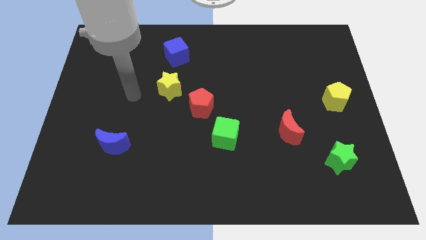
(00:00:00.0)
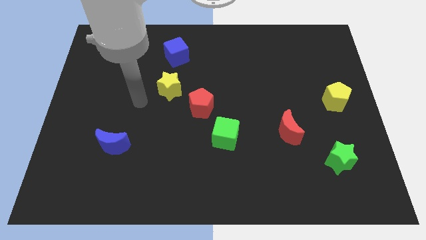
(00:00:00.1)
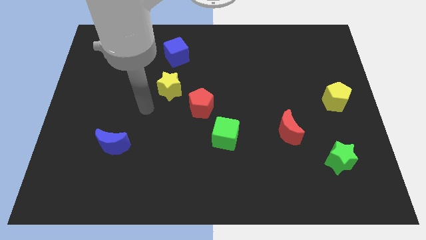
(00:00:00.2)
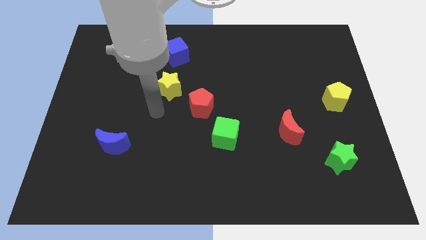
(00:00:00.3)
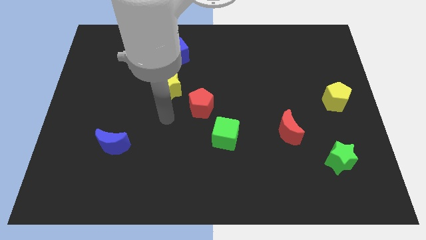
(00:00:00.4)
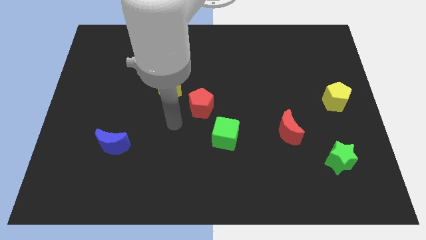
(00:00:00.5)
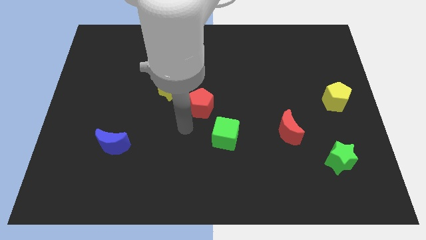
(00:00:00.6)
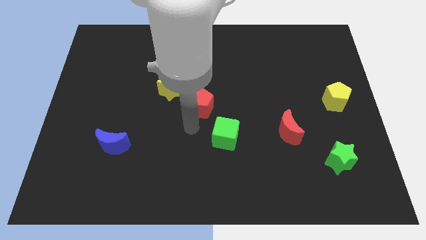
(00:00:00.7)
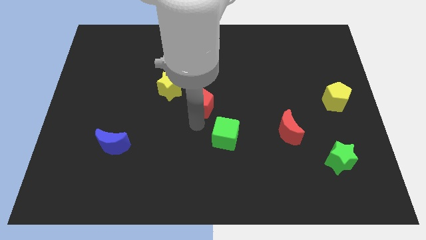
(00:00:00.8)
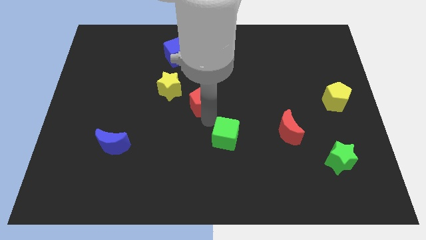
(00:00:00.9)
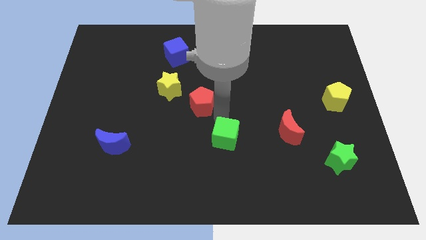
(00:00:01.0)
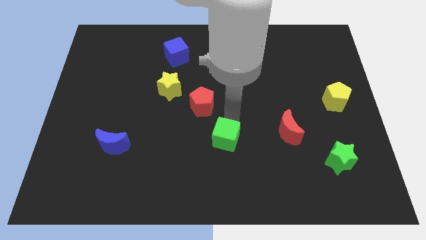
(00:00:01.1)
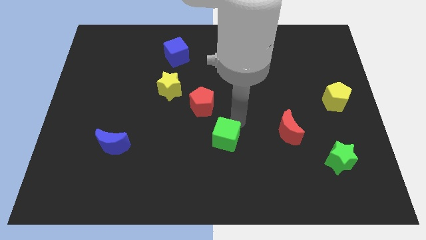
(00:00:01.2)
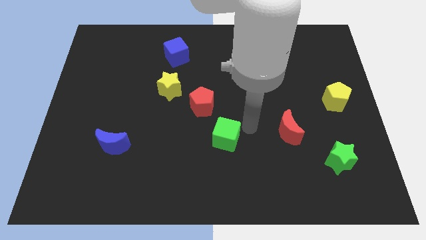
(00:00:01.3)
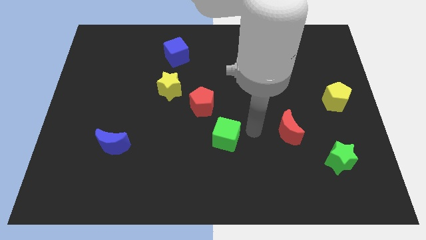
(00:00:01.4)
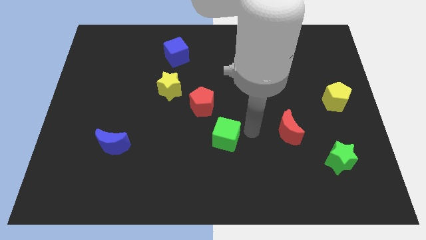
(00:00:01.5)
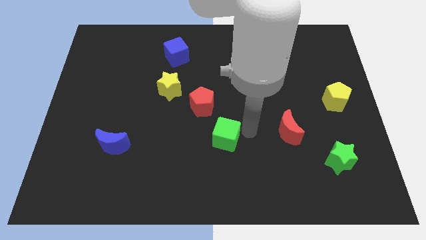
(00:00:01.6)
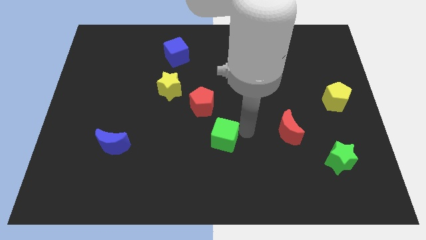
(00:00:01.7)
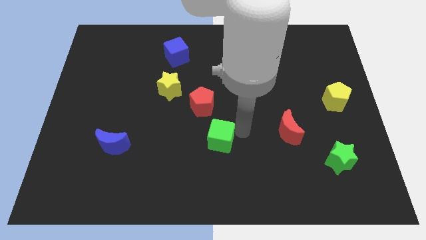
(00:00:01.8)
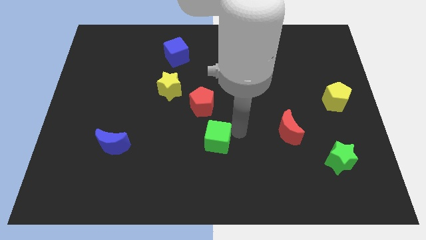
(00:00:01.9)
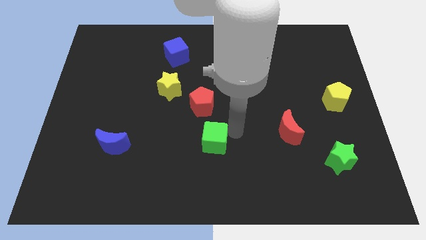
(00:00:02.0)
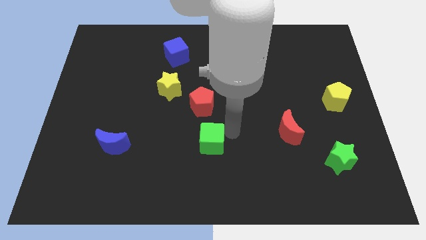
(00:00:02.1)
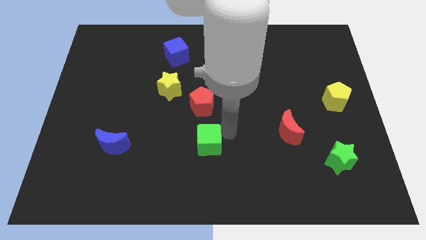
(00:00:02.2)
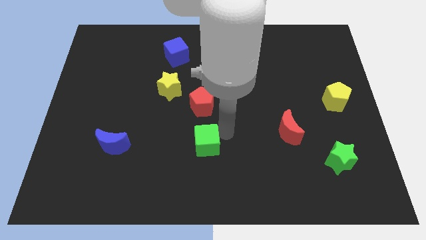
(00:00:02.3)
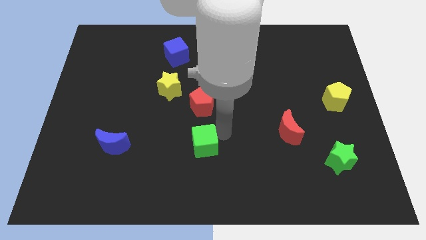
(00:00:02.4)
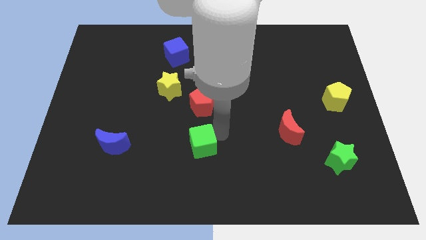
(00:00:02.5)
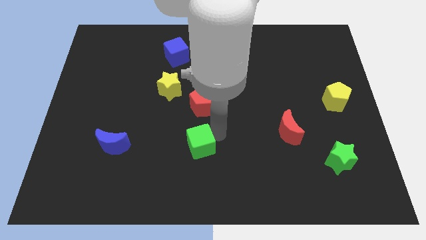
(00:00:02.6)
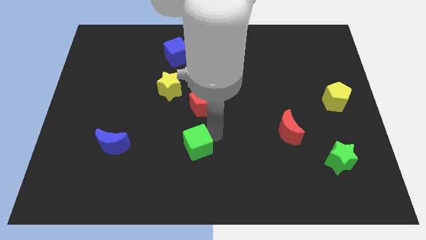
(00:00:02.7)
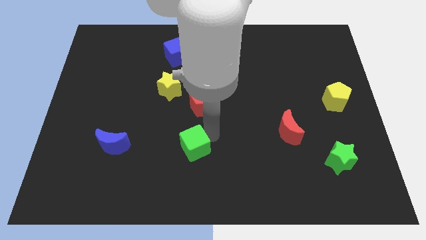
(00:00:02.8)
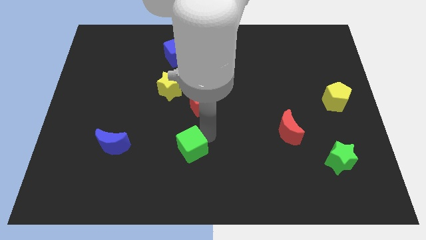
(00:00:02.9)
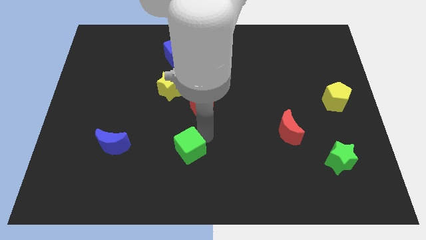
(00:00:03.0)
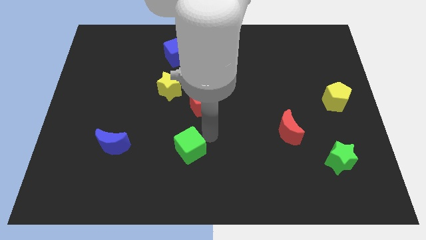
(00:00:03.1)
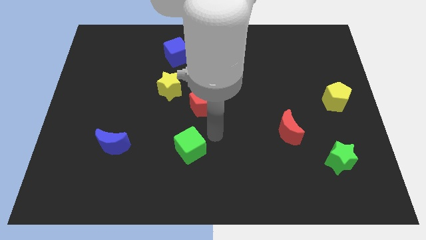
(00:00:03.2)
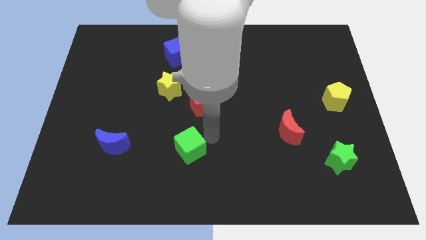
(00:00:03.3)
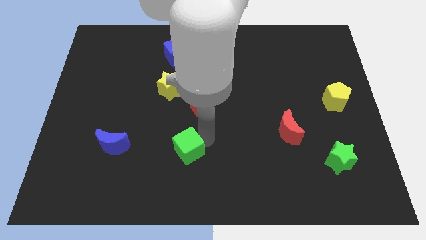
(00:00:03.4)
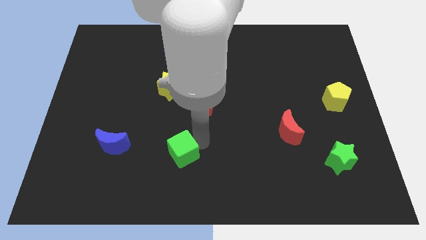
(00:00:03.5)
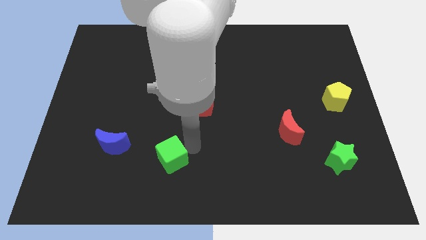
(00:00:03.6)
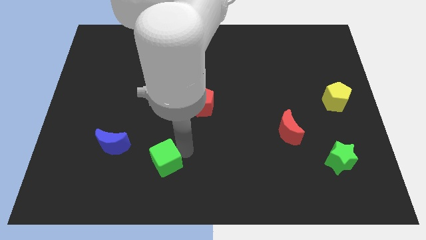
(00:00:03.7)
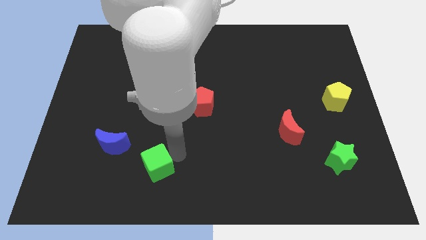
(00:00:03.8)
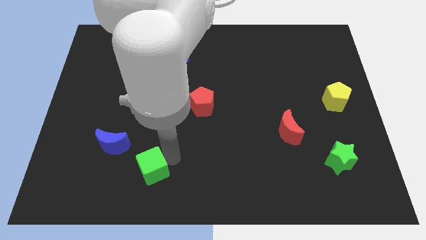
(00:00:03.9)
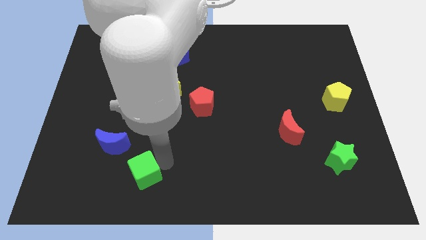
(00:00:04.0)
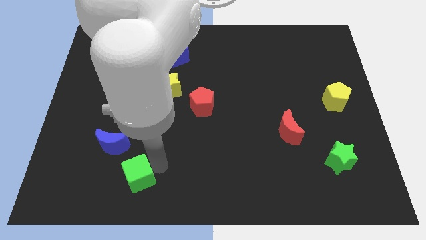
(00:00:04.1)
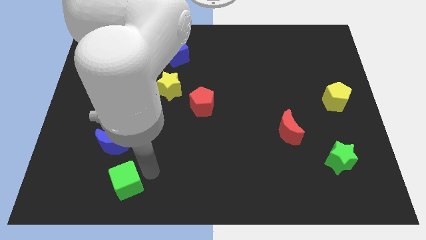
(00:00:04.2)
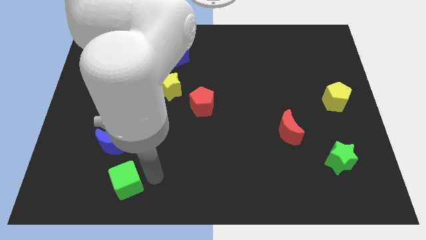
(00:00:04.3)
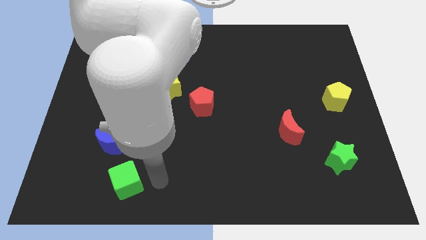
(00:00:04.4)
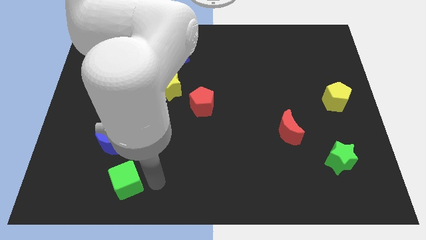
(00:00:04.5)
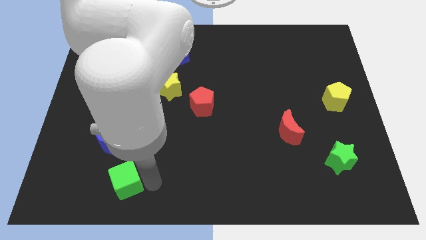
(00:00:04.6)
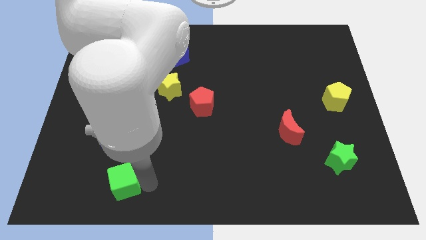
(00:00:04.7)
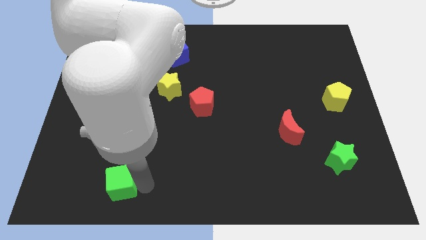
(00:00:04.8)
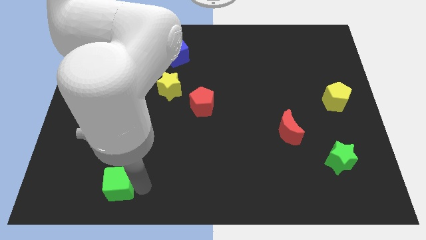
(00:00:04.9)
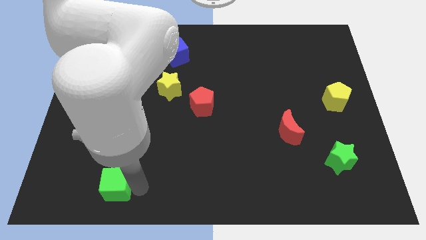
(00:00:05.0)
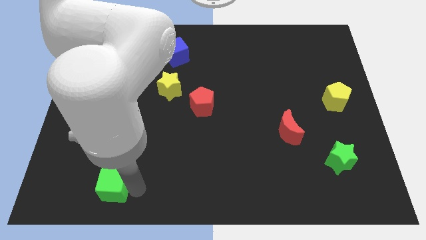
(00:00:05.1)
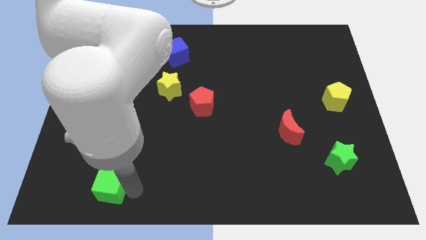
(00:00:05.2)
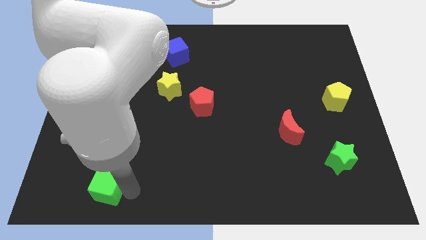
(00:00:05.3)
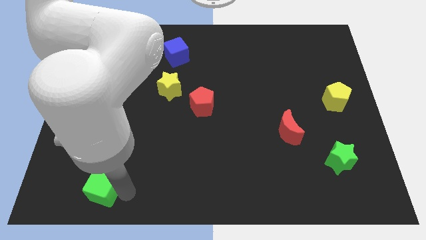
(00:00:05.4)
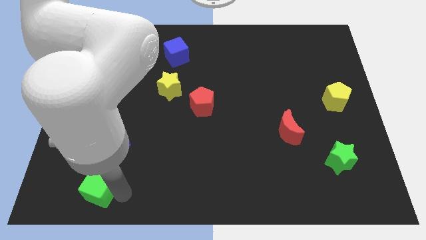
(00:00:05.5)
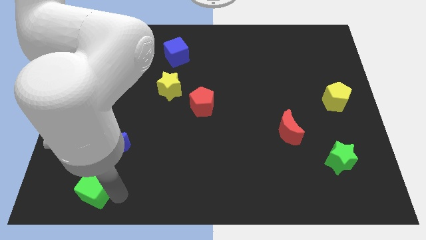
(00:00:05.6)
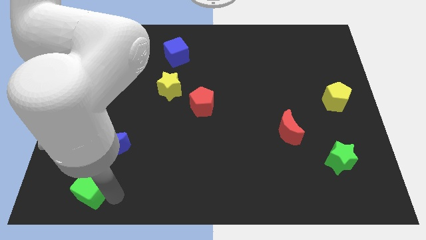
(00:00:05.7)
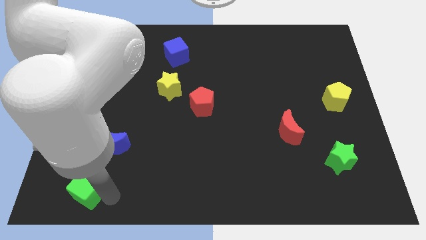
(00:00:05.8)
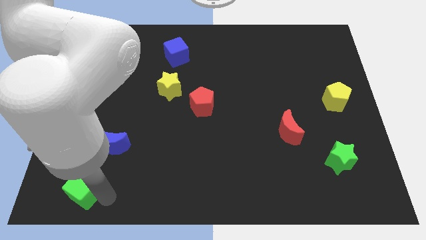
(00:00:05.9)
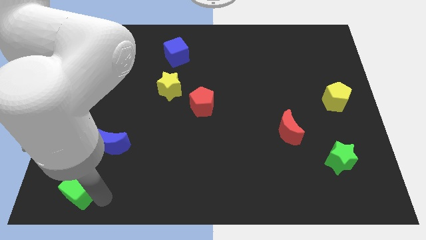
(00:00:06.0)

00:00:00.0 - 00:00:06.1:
move the green cube to the bottom left of the blue moon

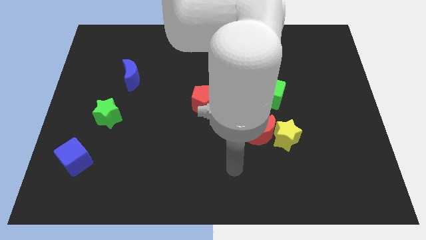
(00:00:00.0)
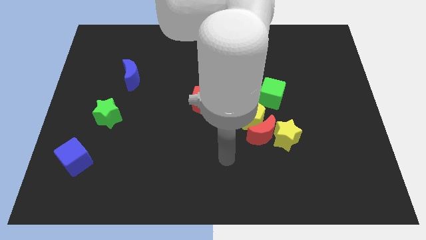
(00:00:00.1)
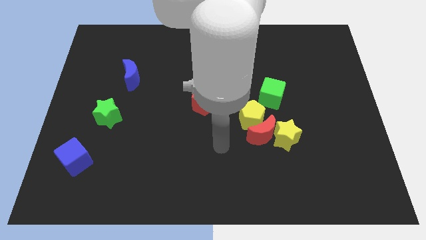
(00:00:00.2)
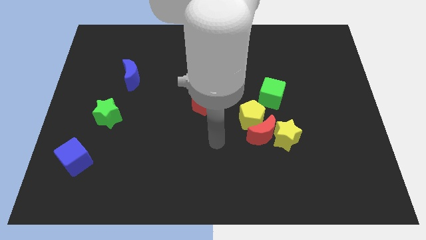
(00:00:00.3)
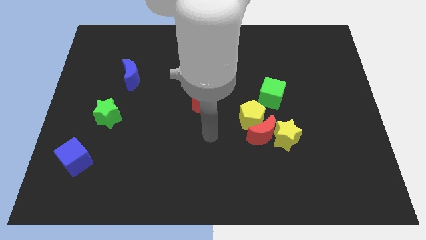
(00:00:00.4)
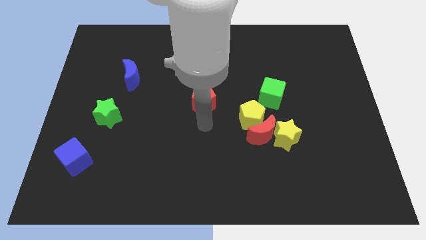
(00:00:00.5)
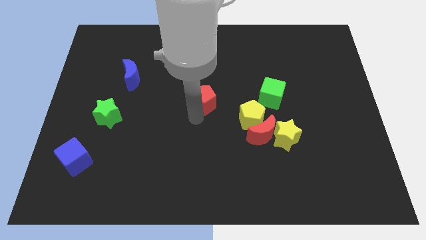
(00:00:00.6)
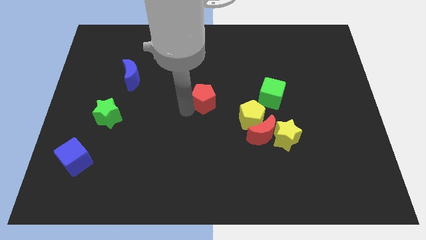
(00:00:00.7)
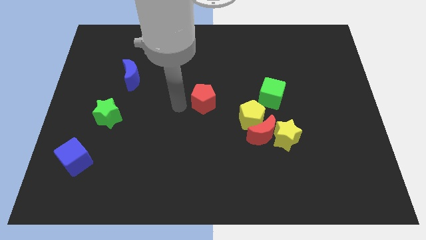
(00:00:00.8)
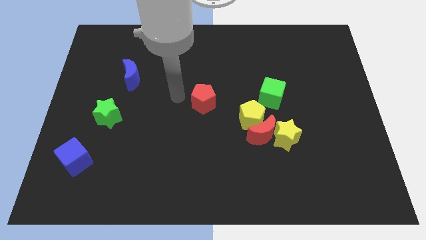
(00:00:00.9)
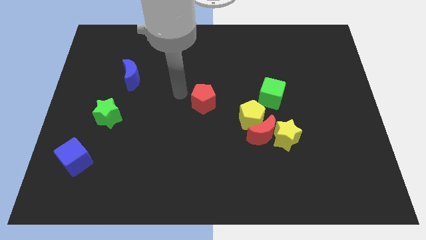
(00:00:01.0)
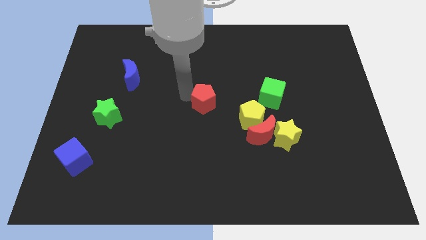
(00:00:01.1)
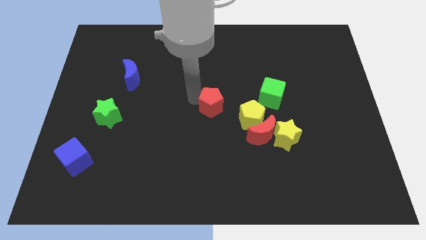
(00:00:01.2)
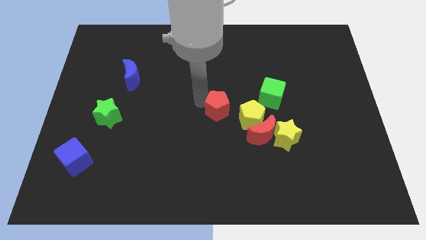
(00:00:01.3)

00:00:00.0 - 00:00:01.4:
slide the red pentagon to the top left of the red moon
